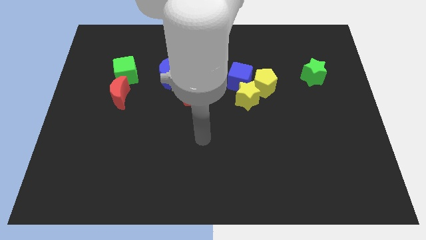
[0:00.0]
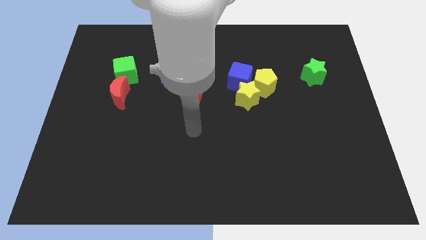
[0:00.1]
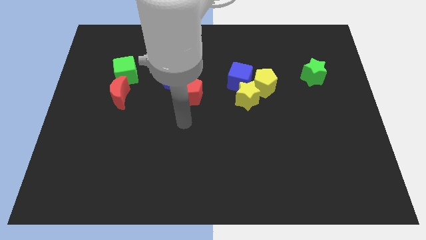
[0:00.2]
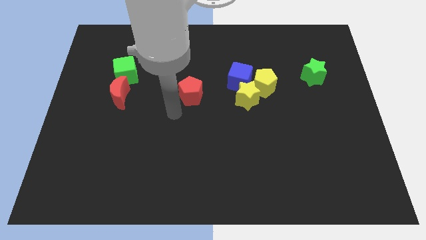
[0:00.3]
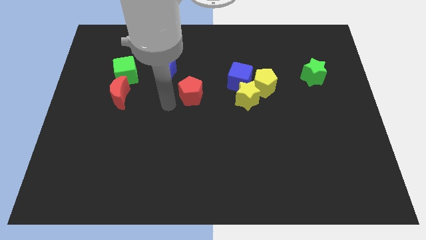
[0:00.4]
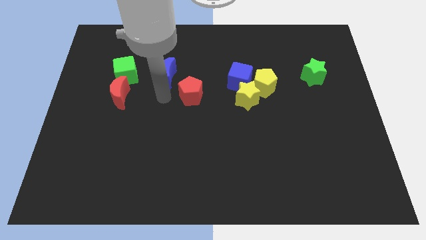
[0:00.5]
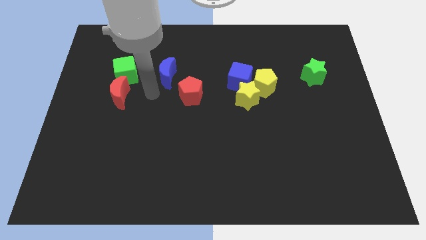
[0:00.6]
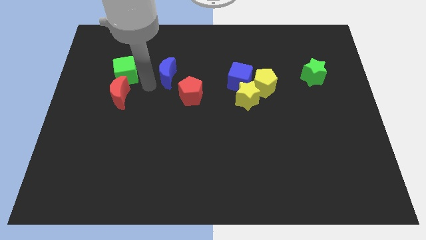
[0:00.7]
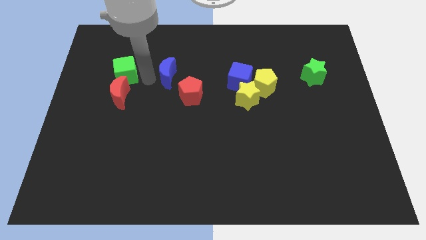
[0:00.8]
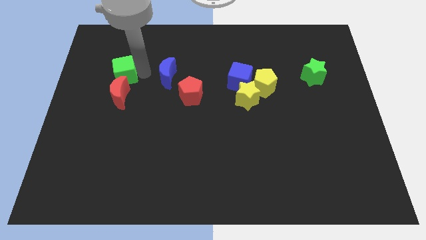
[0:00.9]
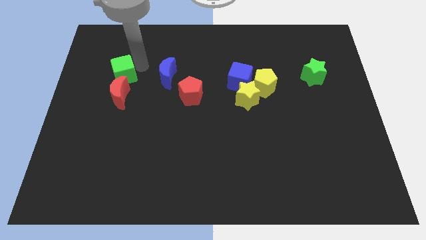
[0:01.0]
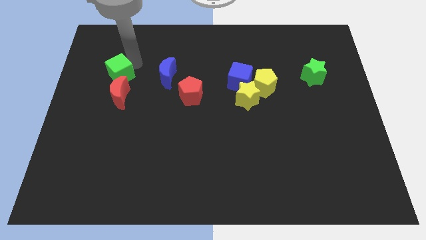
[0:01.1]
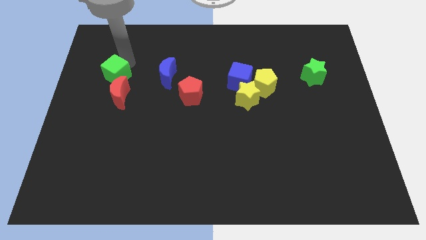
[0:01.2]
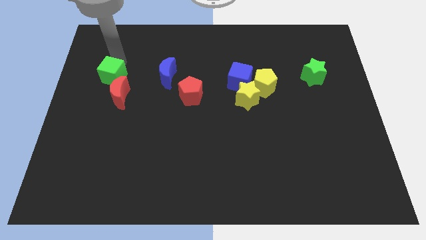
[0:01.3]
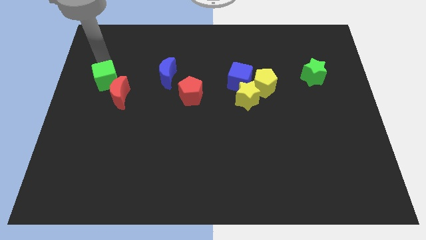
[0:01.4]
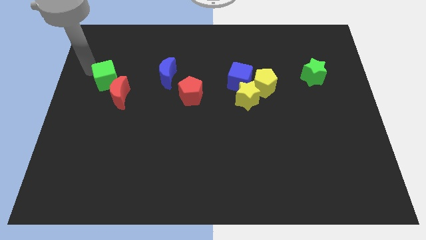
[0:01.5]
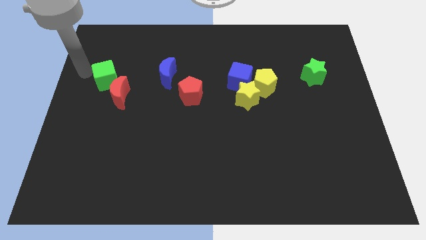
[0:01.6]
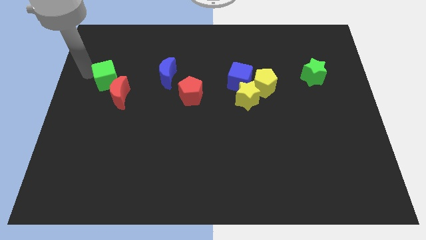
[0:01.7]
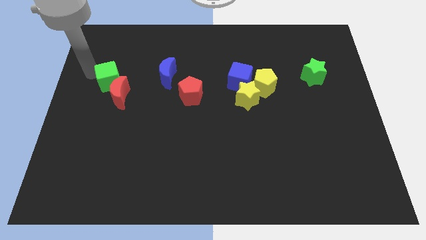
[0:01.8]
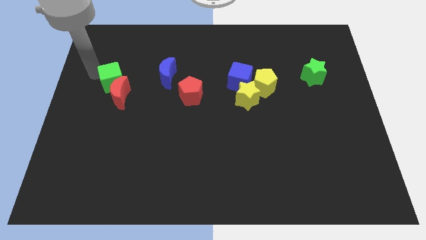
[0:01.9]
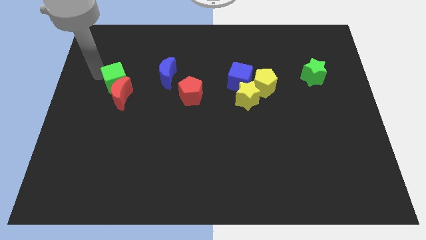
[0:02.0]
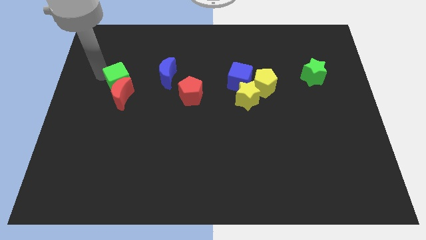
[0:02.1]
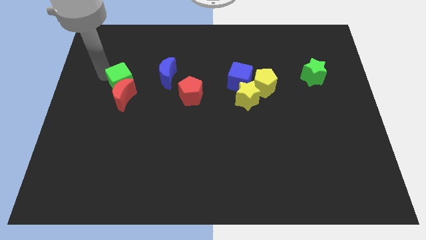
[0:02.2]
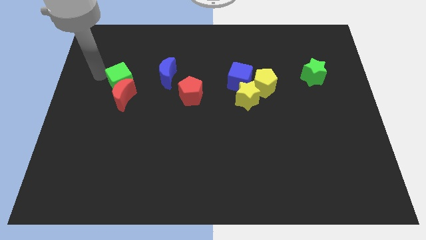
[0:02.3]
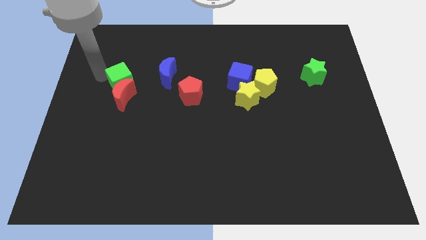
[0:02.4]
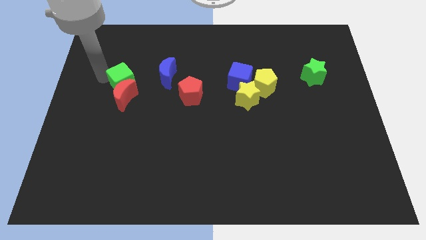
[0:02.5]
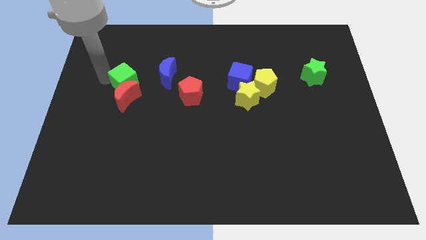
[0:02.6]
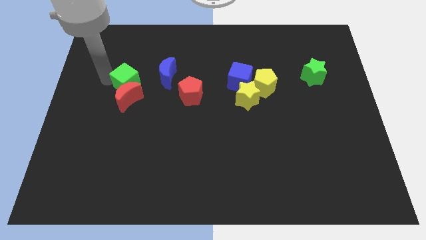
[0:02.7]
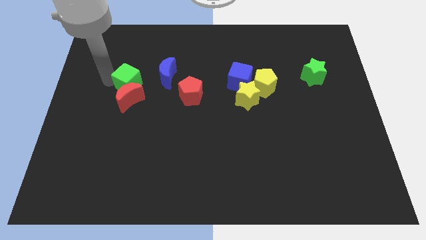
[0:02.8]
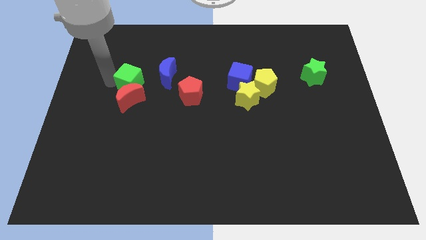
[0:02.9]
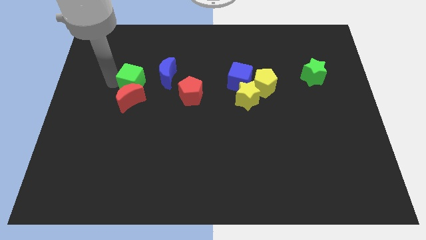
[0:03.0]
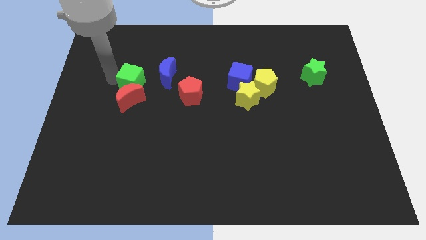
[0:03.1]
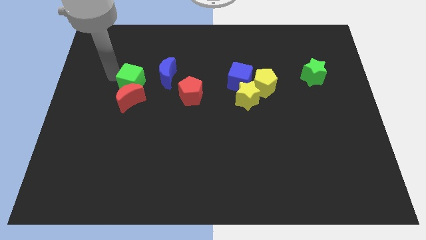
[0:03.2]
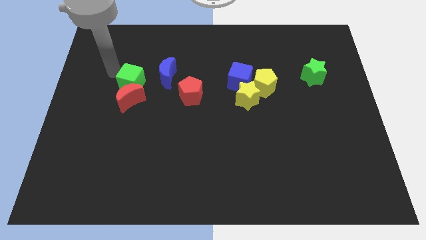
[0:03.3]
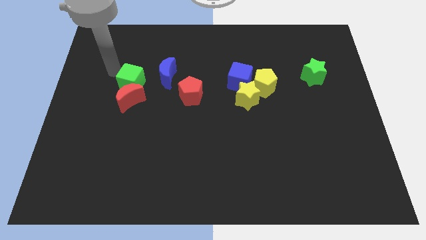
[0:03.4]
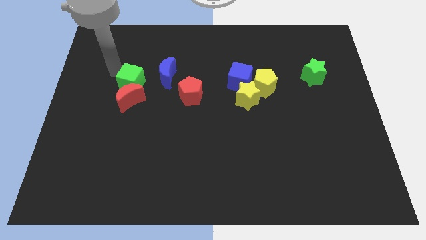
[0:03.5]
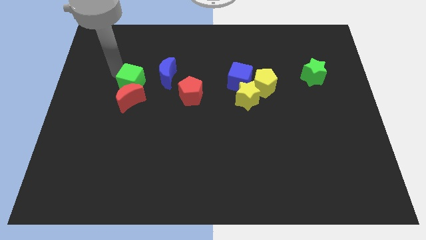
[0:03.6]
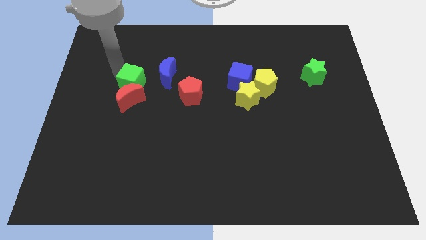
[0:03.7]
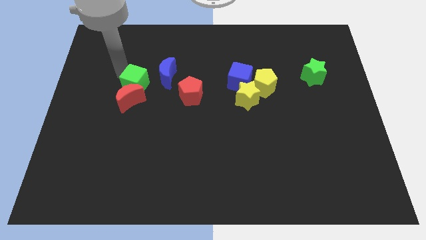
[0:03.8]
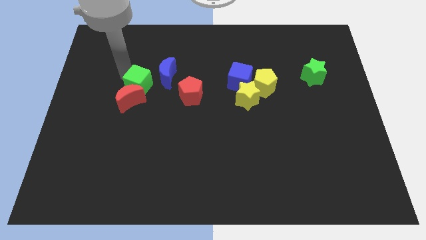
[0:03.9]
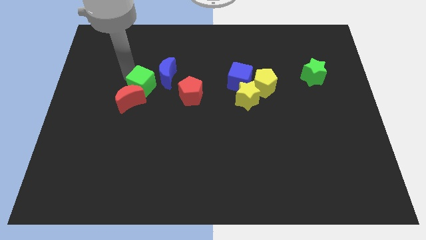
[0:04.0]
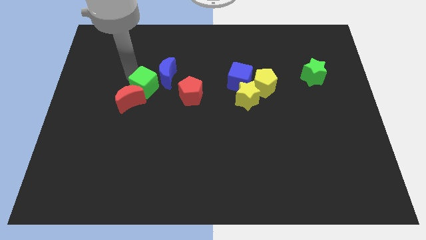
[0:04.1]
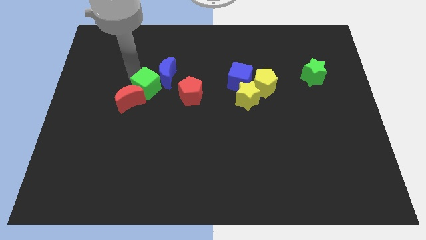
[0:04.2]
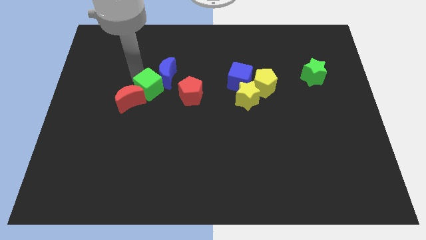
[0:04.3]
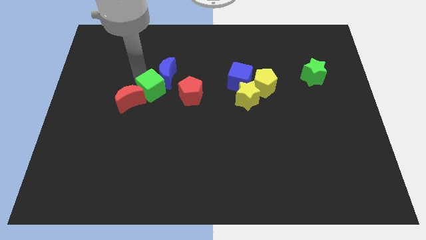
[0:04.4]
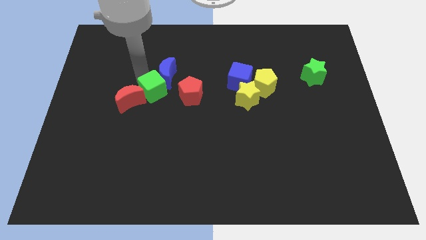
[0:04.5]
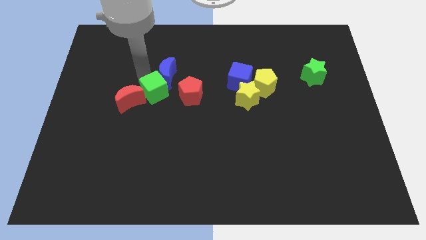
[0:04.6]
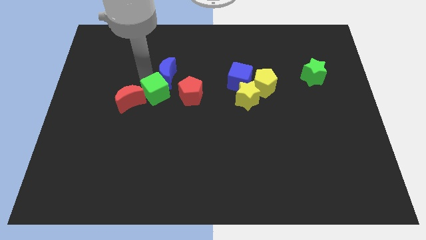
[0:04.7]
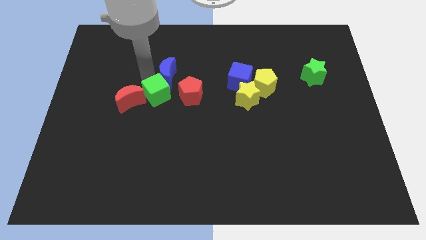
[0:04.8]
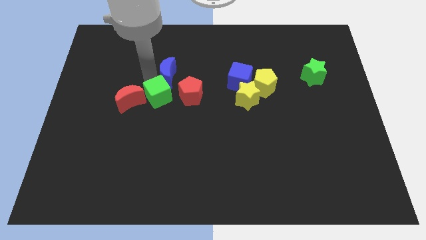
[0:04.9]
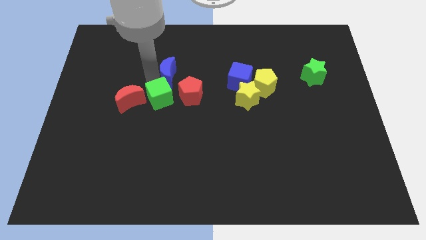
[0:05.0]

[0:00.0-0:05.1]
move the green cube to the bottom left side of the red pentagon

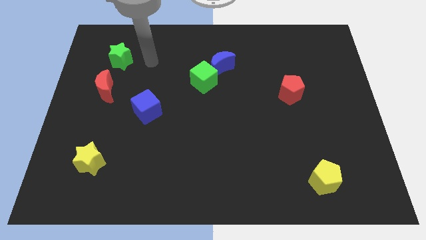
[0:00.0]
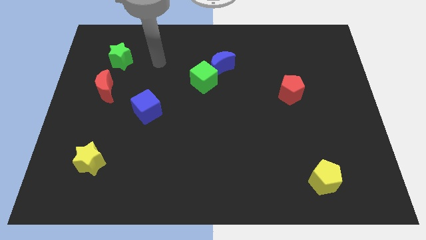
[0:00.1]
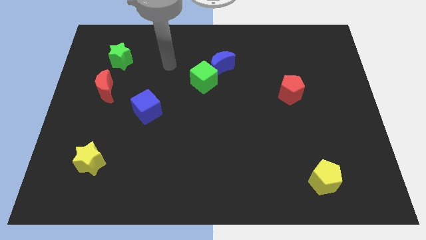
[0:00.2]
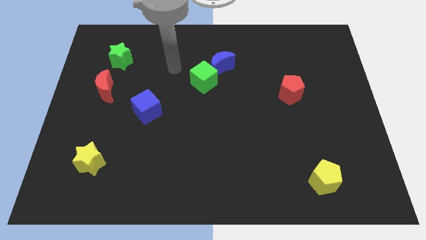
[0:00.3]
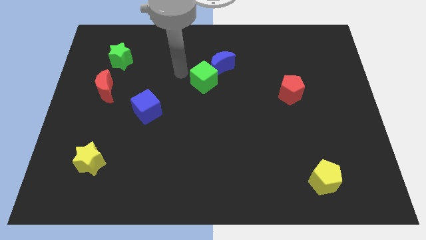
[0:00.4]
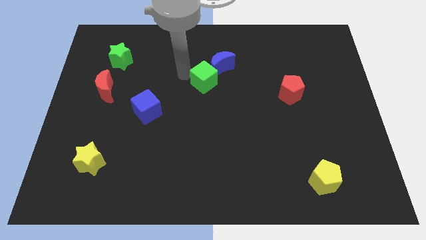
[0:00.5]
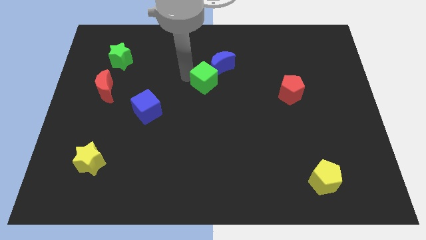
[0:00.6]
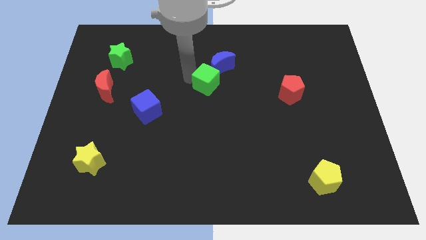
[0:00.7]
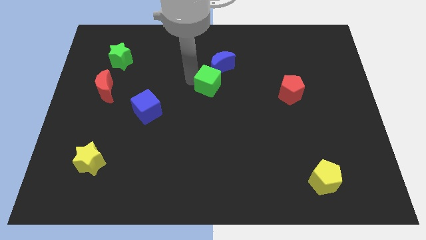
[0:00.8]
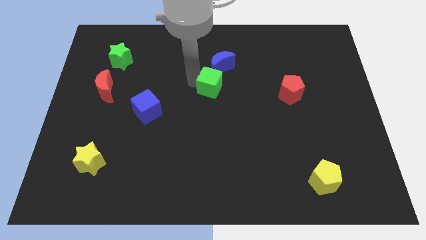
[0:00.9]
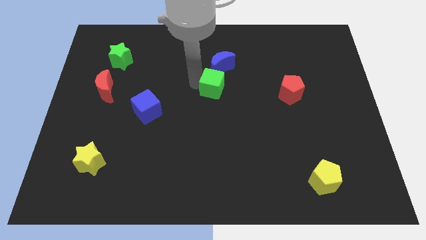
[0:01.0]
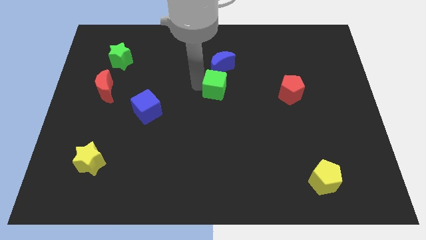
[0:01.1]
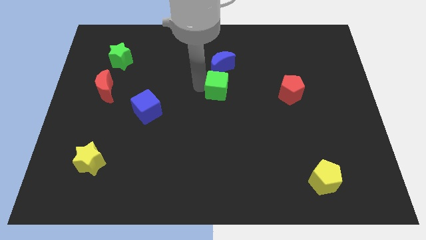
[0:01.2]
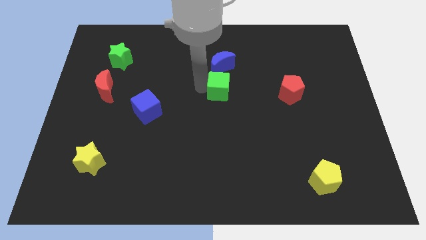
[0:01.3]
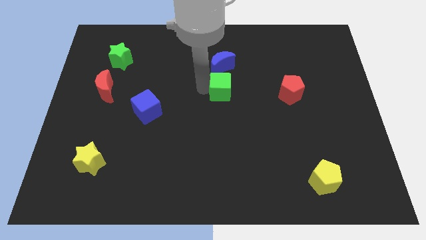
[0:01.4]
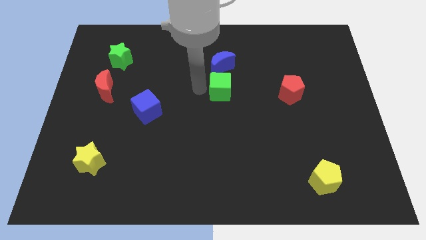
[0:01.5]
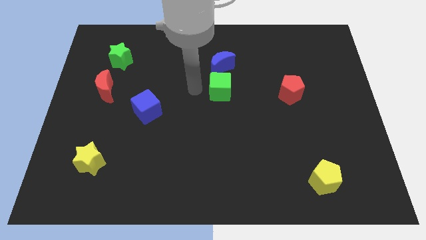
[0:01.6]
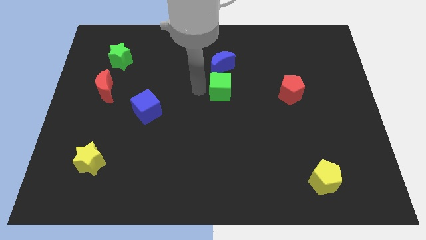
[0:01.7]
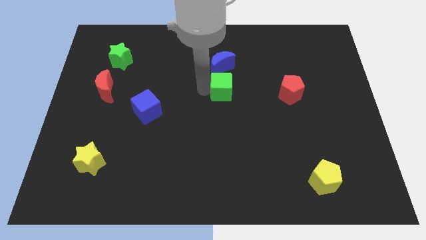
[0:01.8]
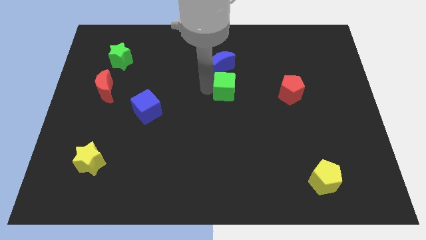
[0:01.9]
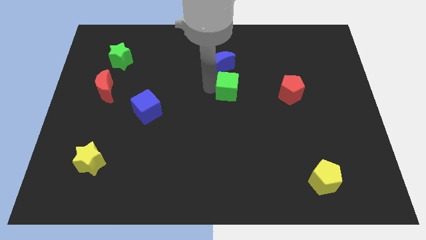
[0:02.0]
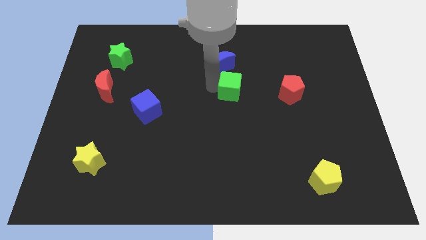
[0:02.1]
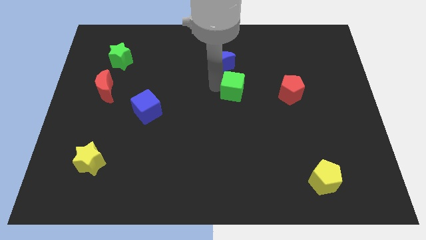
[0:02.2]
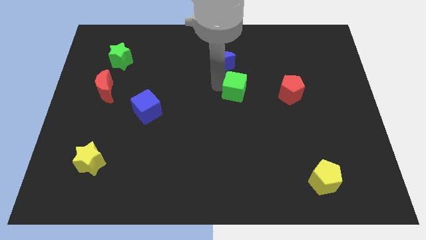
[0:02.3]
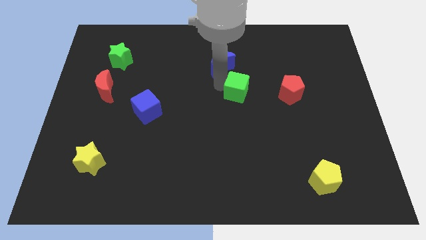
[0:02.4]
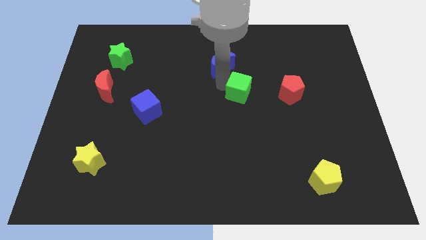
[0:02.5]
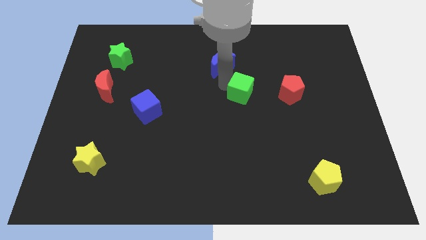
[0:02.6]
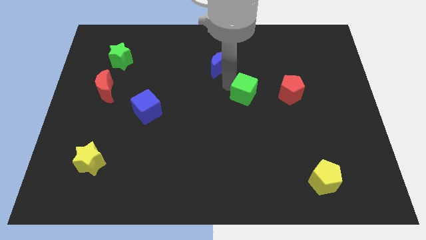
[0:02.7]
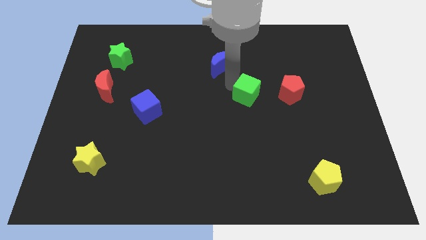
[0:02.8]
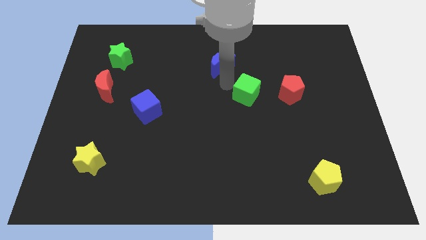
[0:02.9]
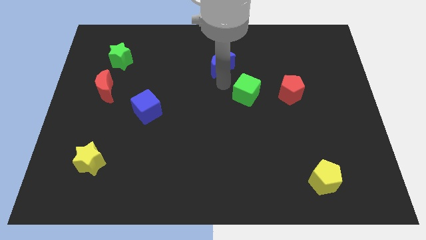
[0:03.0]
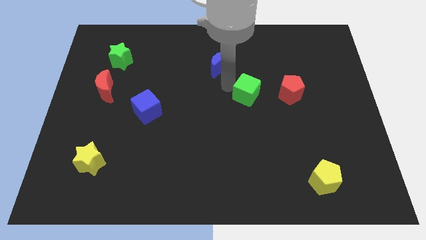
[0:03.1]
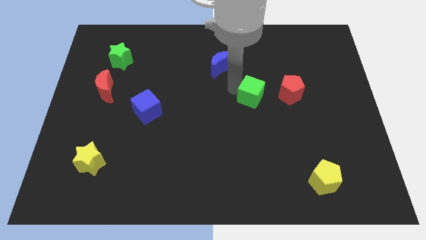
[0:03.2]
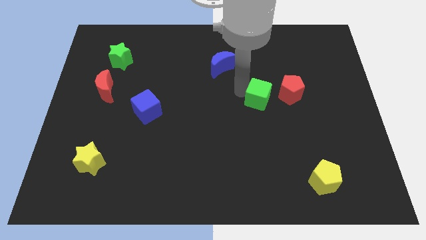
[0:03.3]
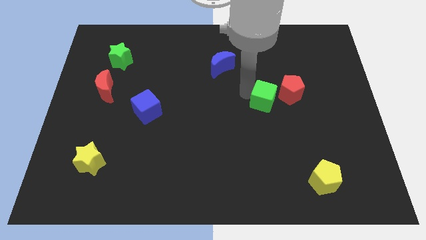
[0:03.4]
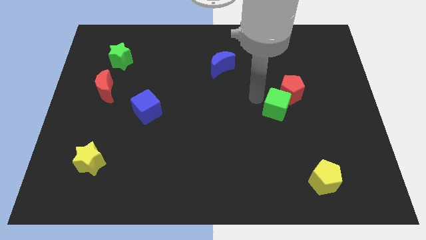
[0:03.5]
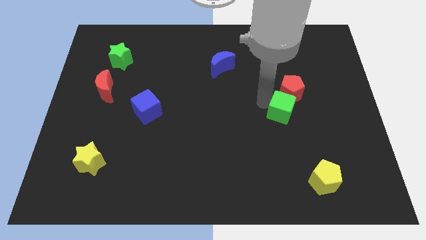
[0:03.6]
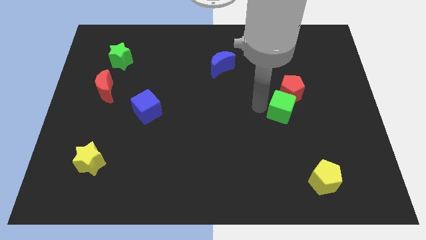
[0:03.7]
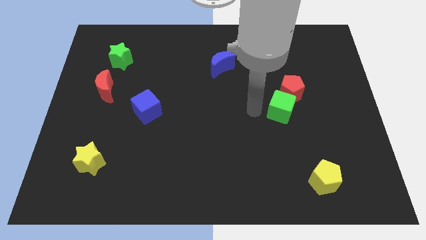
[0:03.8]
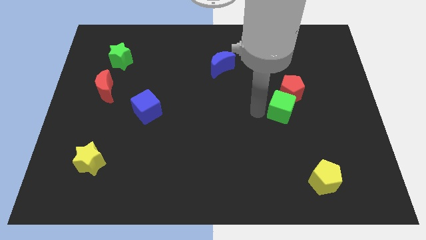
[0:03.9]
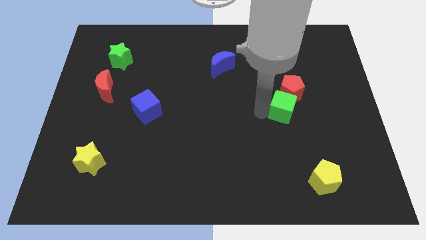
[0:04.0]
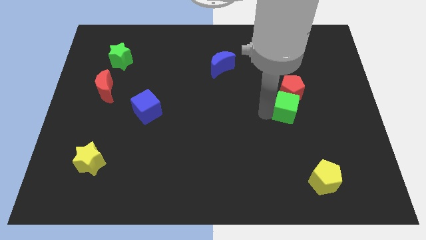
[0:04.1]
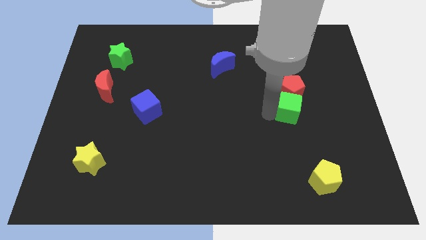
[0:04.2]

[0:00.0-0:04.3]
put the green cube to the bottom right of the red pentagon
